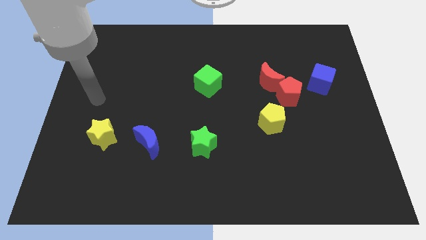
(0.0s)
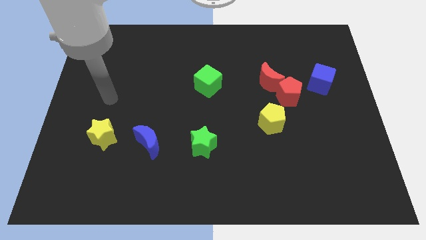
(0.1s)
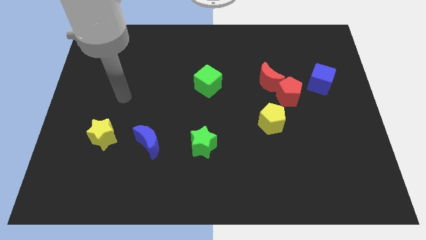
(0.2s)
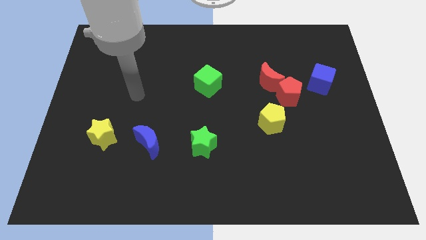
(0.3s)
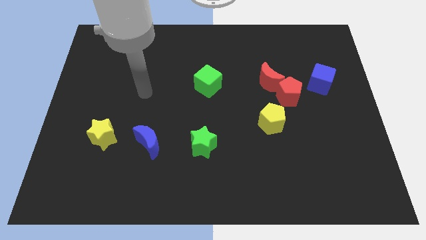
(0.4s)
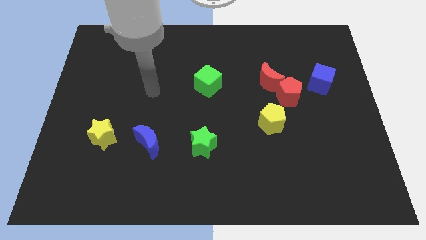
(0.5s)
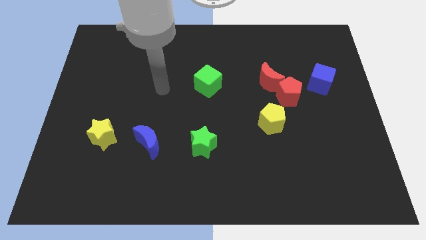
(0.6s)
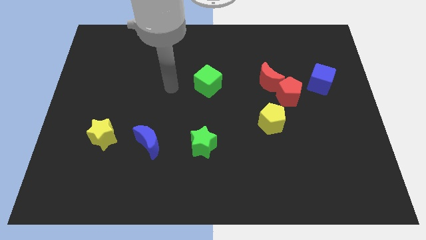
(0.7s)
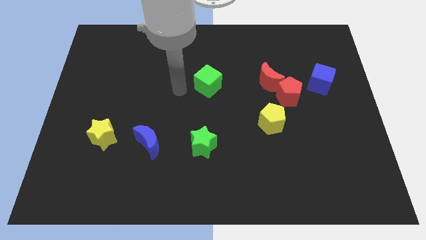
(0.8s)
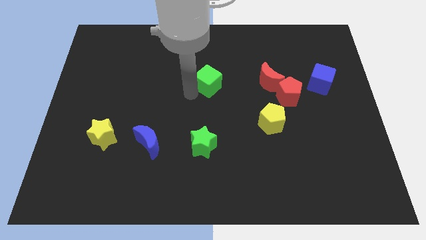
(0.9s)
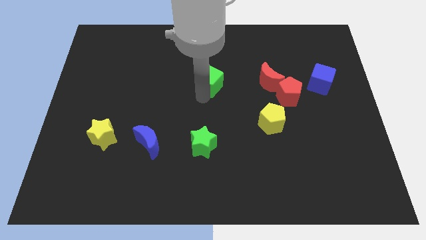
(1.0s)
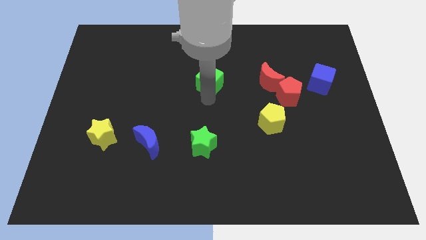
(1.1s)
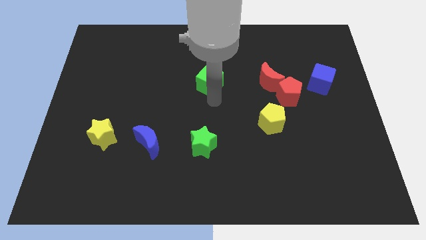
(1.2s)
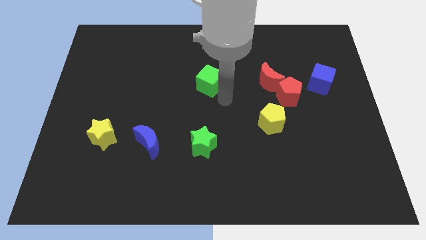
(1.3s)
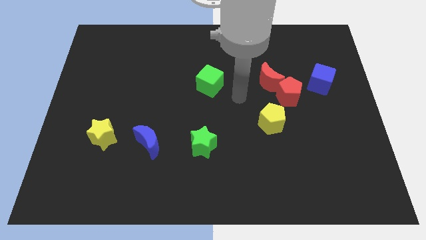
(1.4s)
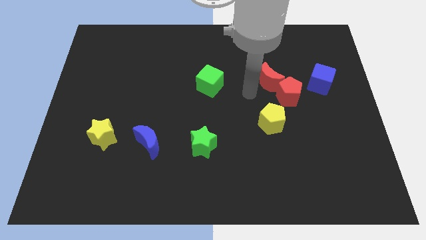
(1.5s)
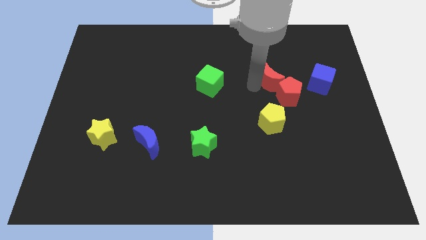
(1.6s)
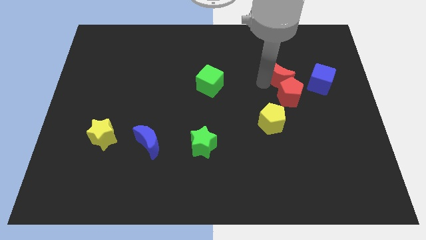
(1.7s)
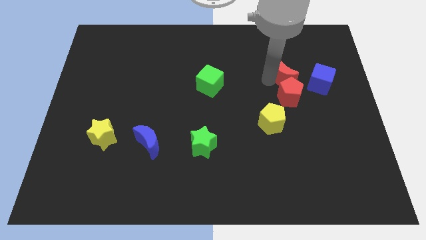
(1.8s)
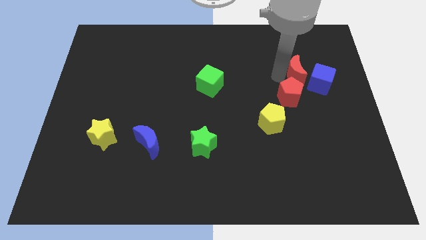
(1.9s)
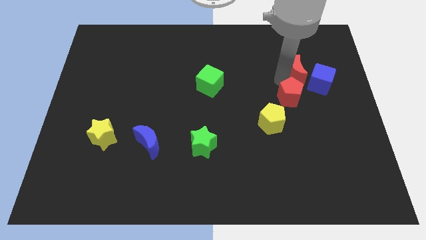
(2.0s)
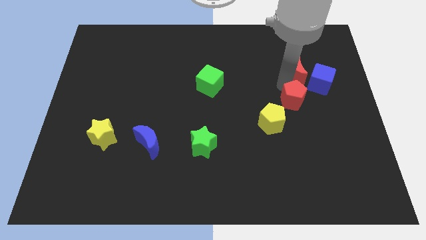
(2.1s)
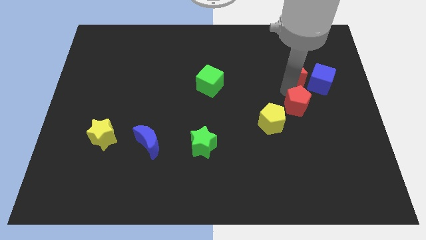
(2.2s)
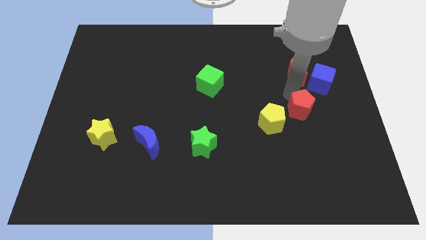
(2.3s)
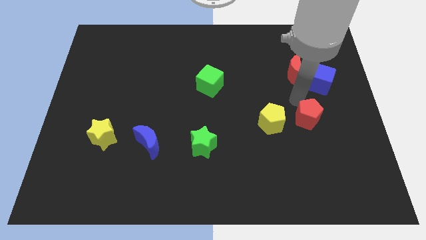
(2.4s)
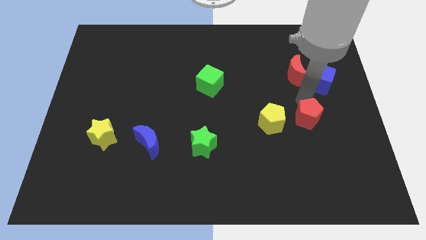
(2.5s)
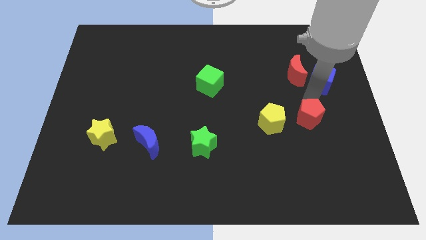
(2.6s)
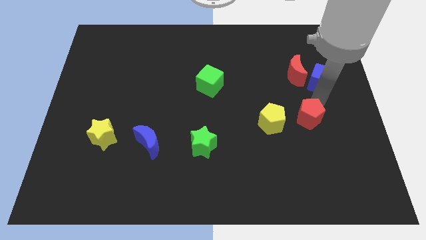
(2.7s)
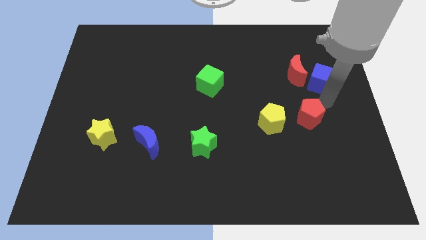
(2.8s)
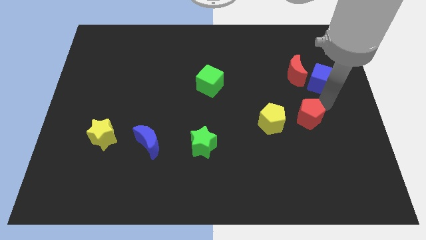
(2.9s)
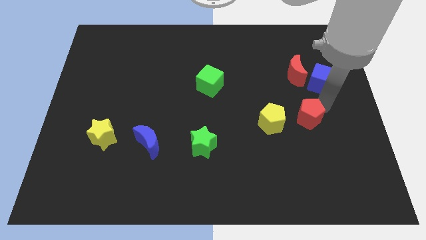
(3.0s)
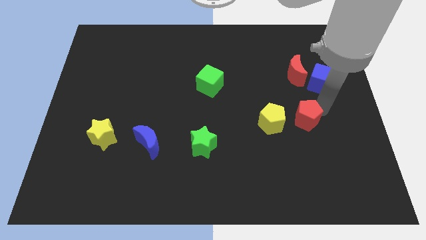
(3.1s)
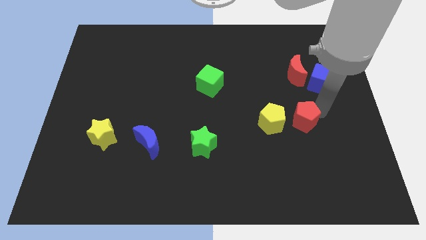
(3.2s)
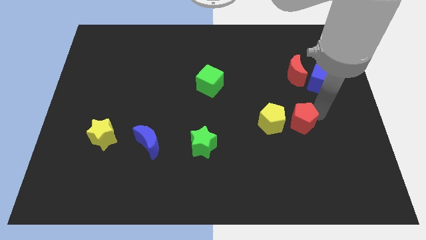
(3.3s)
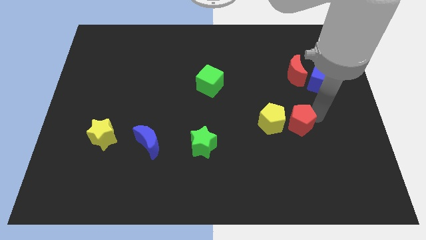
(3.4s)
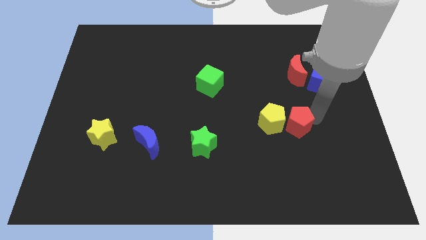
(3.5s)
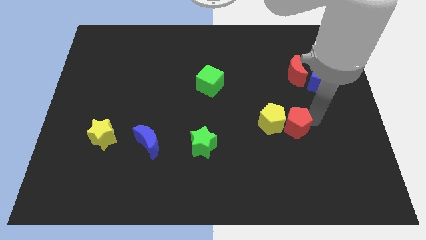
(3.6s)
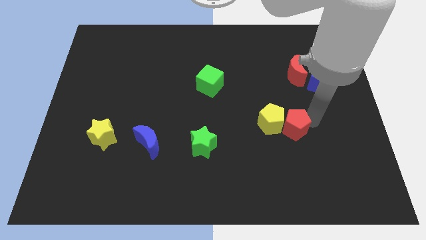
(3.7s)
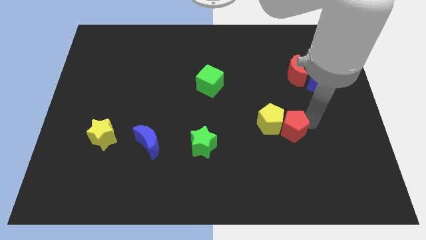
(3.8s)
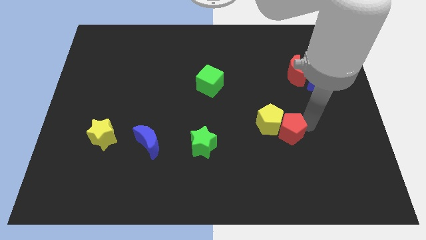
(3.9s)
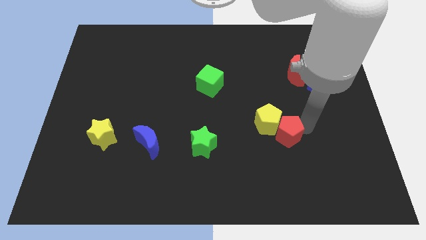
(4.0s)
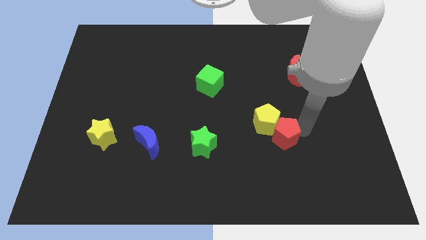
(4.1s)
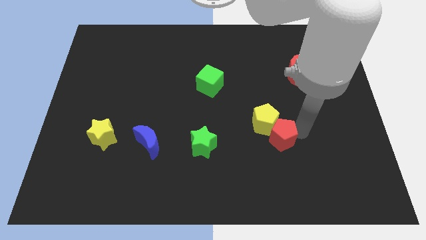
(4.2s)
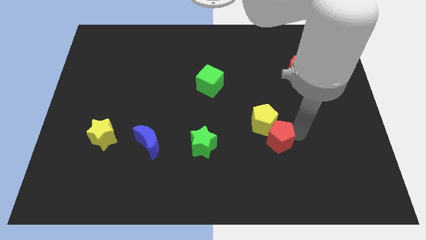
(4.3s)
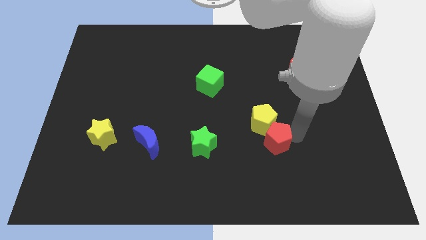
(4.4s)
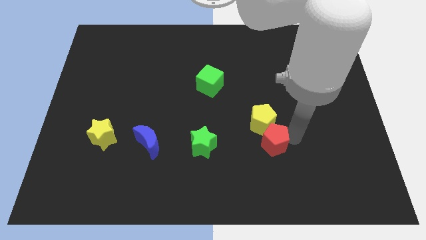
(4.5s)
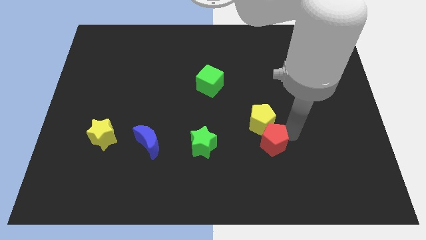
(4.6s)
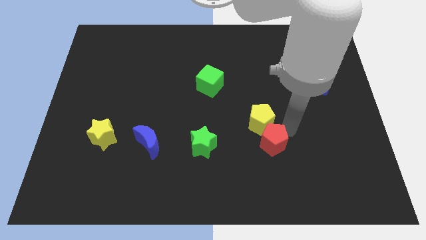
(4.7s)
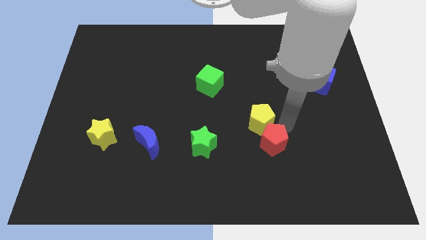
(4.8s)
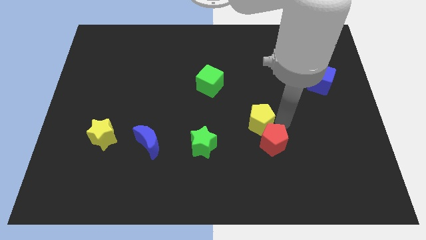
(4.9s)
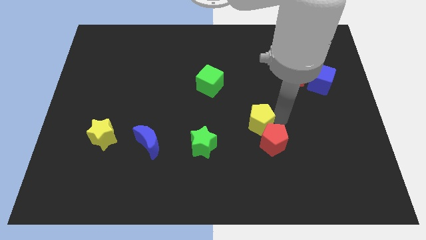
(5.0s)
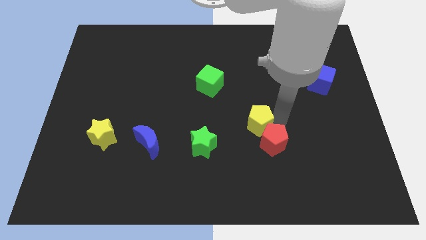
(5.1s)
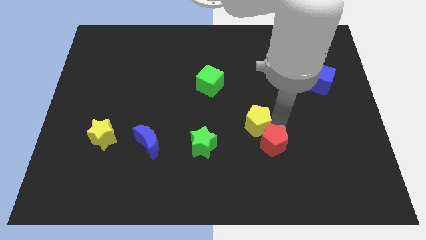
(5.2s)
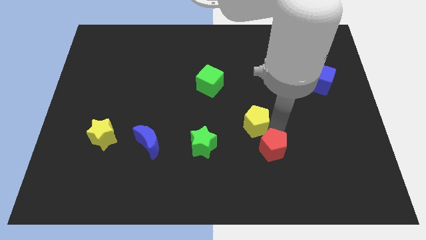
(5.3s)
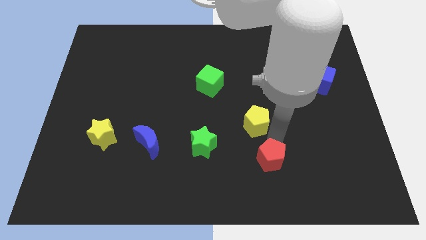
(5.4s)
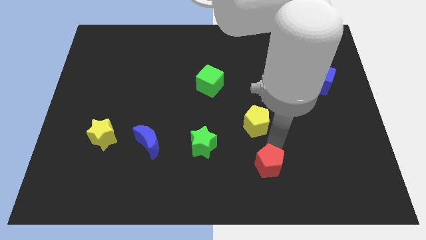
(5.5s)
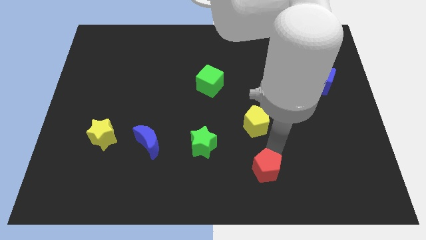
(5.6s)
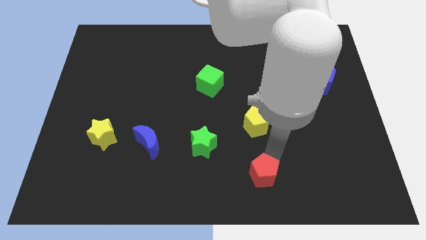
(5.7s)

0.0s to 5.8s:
push the red pentagon to the bottom
